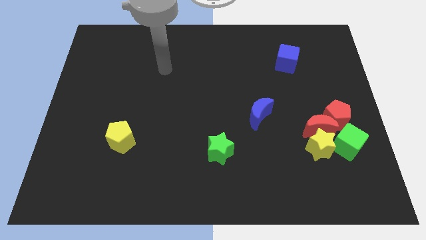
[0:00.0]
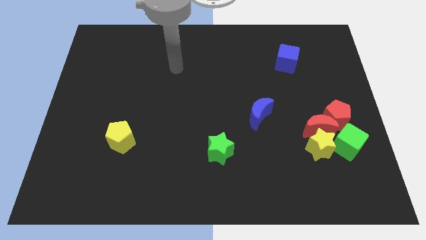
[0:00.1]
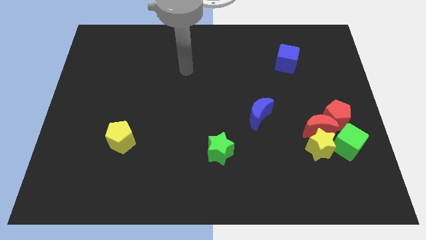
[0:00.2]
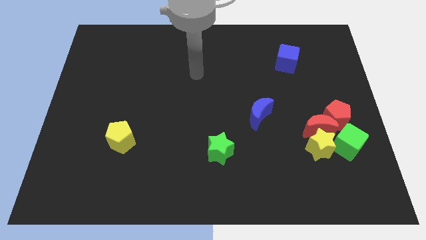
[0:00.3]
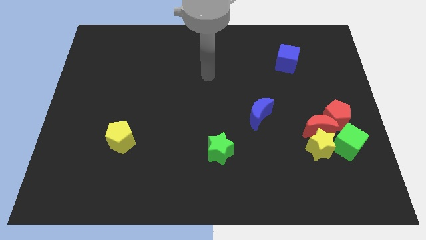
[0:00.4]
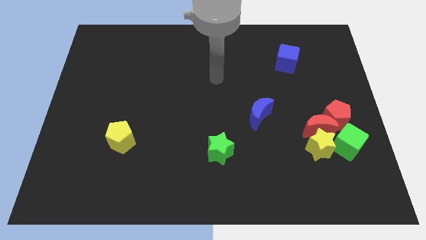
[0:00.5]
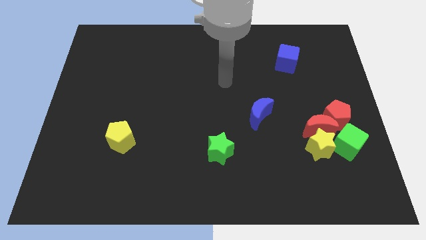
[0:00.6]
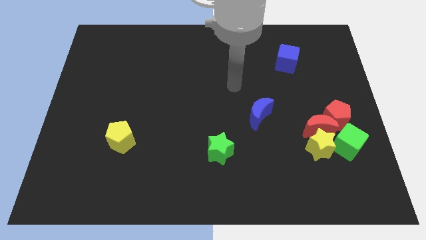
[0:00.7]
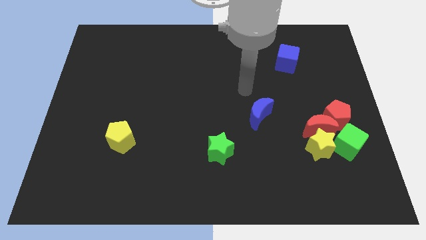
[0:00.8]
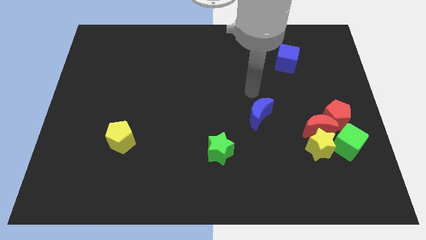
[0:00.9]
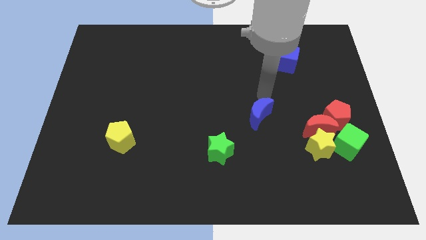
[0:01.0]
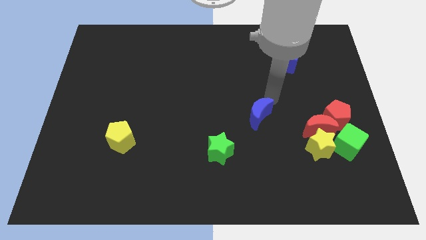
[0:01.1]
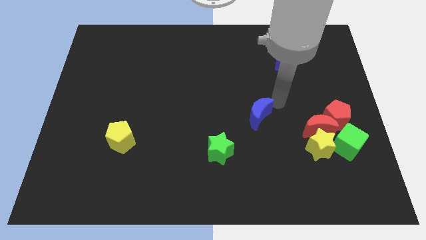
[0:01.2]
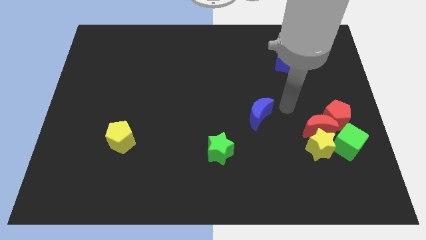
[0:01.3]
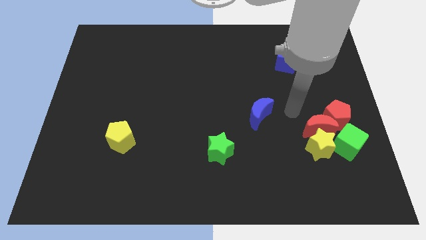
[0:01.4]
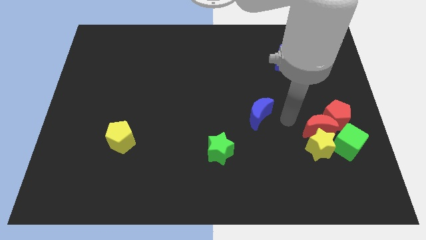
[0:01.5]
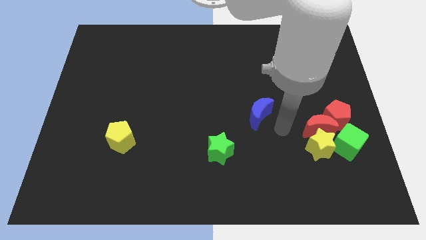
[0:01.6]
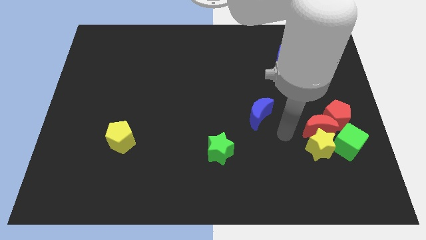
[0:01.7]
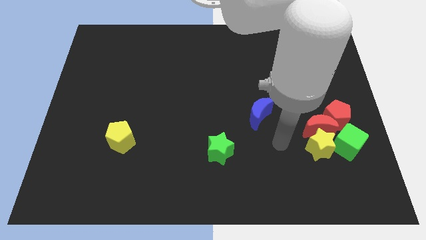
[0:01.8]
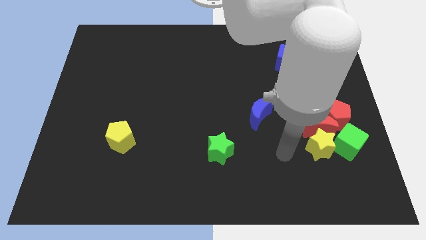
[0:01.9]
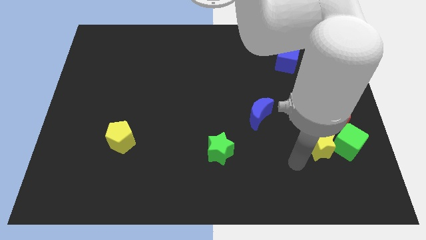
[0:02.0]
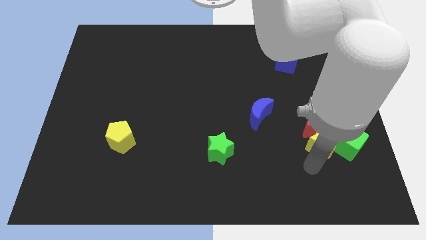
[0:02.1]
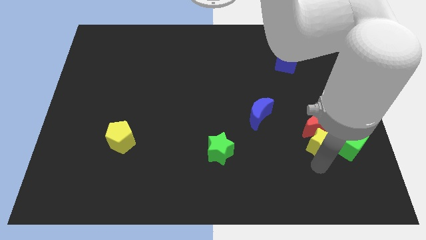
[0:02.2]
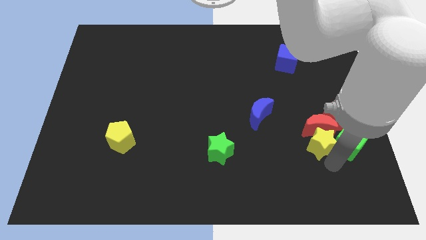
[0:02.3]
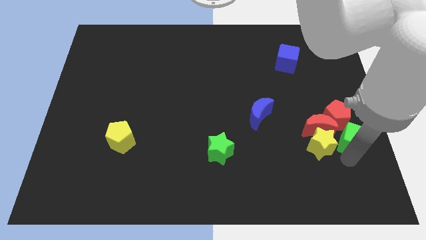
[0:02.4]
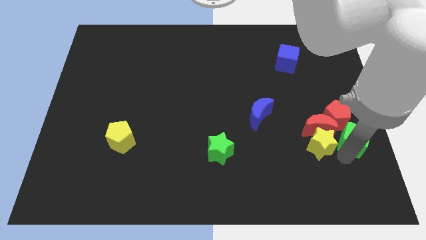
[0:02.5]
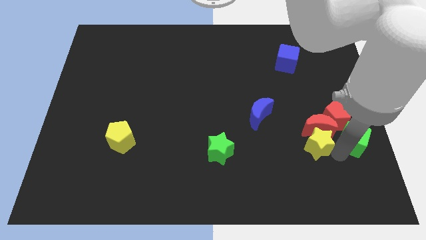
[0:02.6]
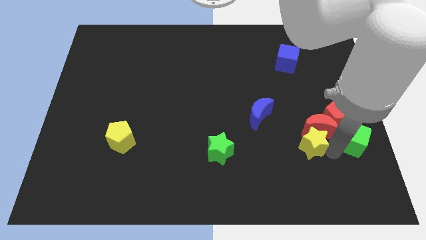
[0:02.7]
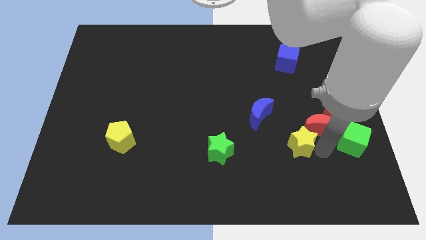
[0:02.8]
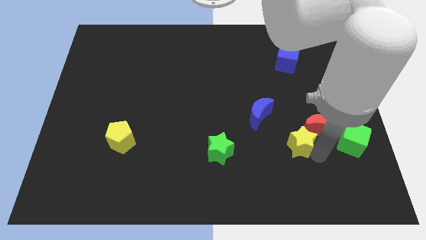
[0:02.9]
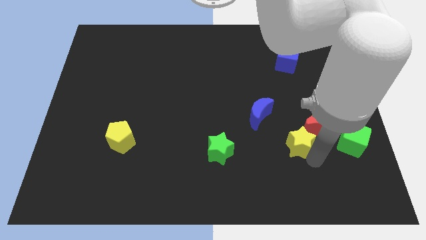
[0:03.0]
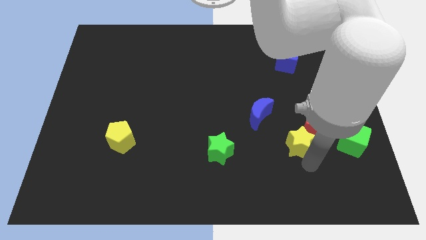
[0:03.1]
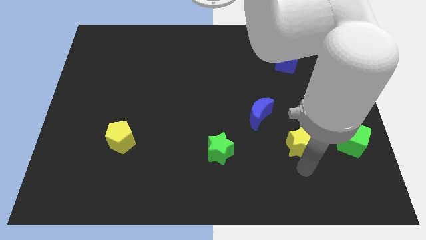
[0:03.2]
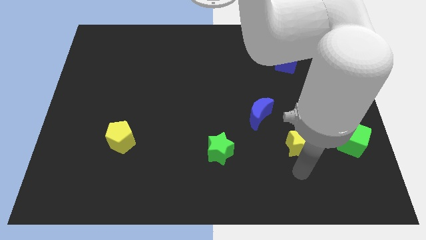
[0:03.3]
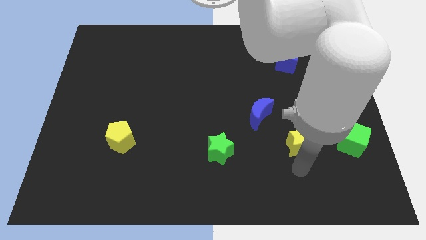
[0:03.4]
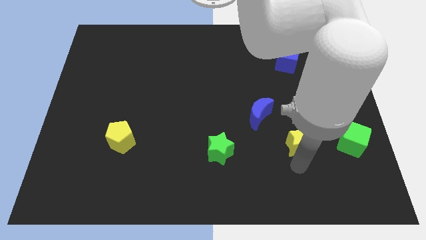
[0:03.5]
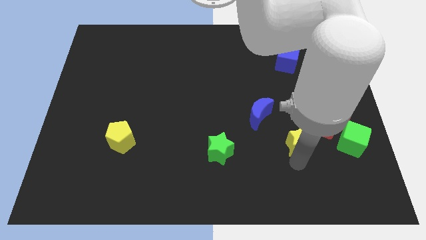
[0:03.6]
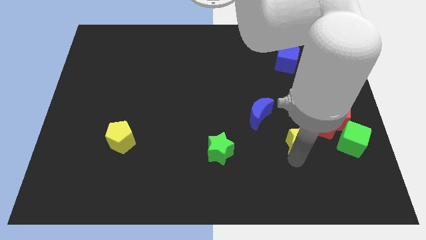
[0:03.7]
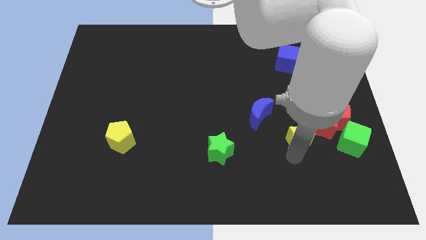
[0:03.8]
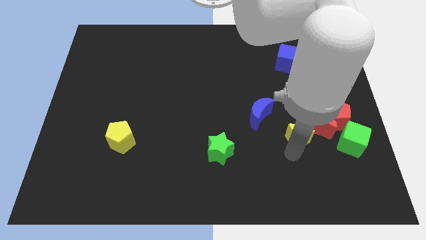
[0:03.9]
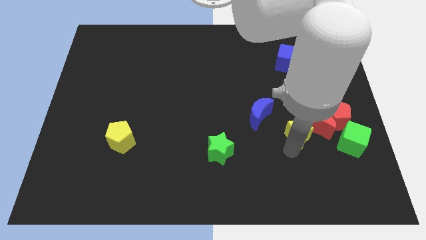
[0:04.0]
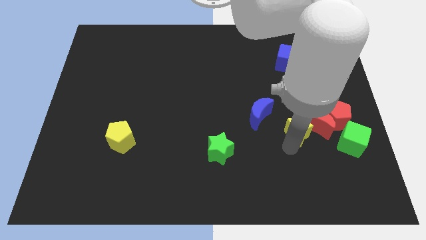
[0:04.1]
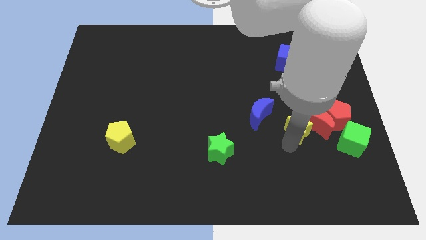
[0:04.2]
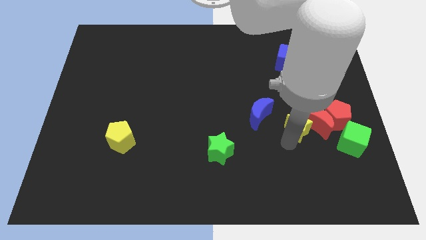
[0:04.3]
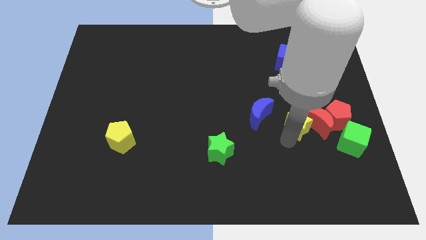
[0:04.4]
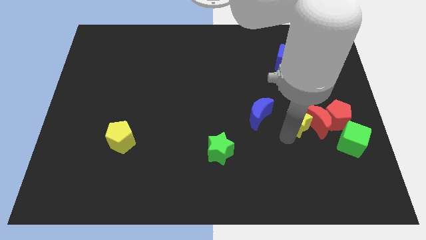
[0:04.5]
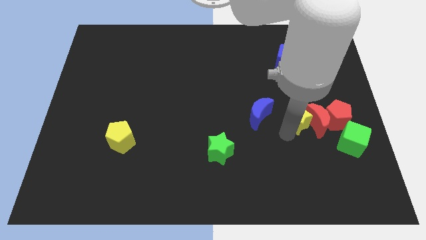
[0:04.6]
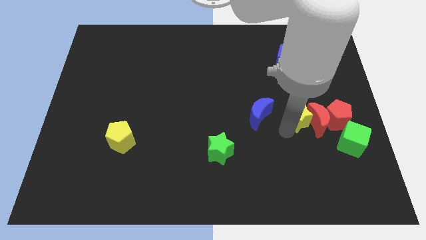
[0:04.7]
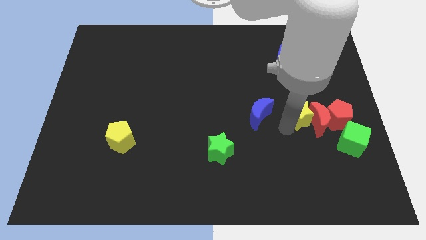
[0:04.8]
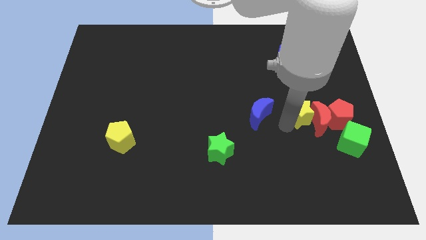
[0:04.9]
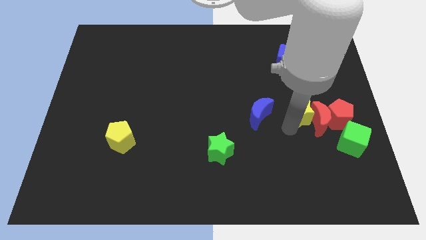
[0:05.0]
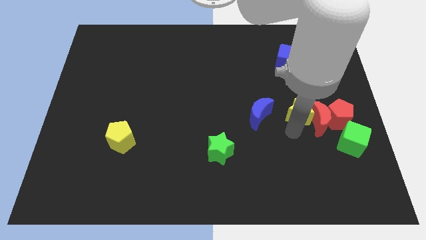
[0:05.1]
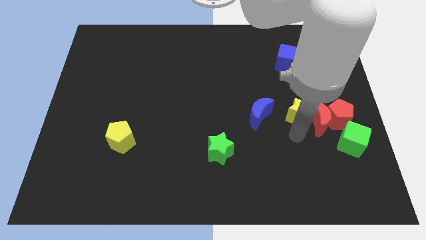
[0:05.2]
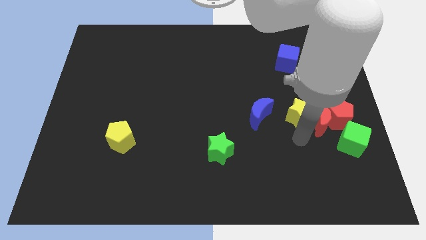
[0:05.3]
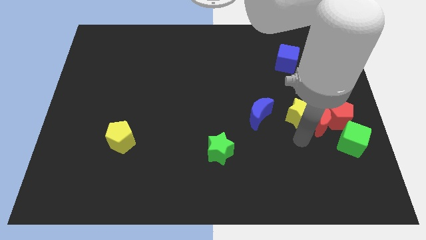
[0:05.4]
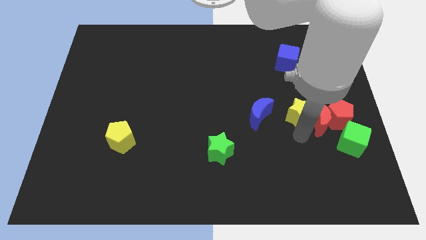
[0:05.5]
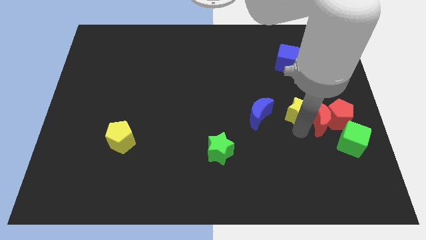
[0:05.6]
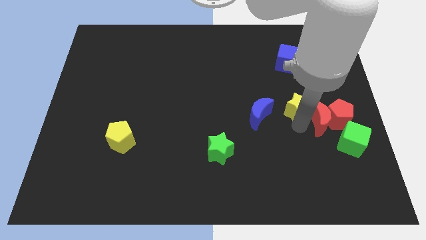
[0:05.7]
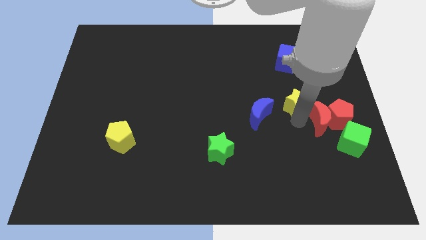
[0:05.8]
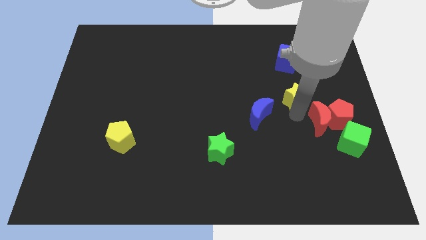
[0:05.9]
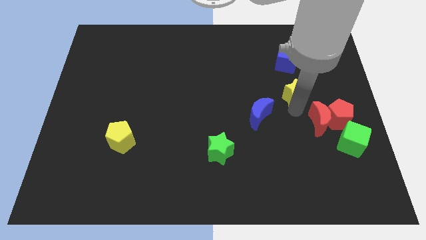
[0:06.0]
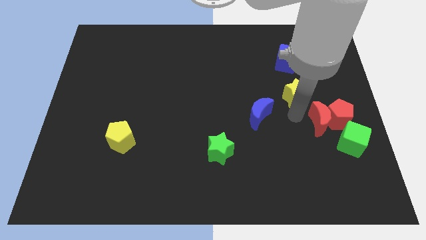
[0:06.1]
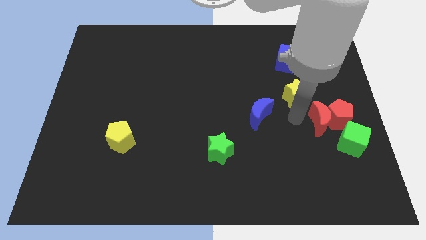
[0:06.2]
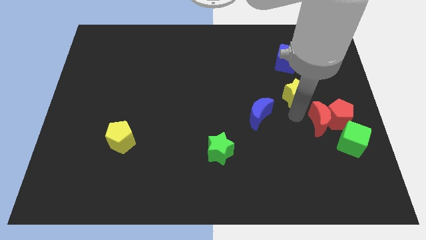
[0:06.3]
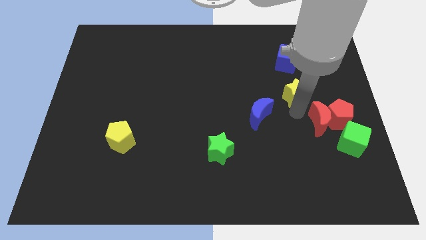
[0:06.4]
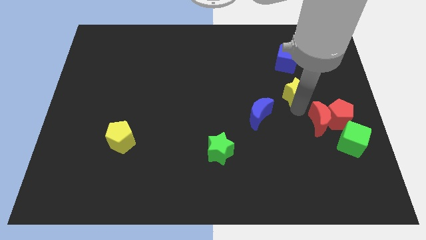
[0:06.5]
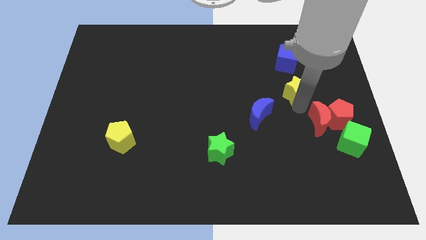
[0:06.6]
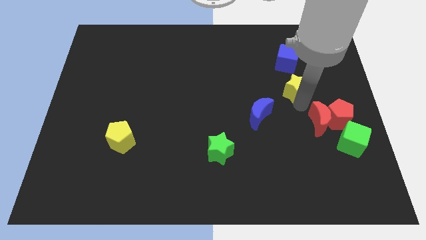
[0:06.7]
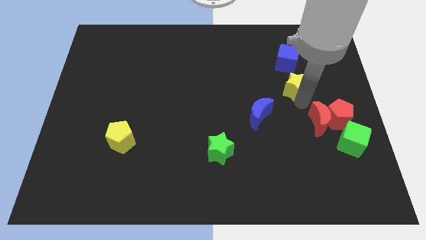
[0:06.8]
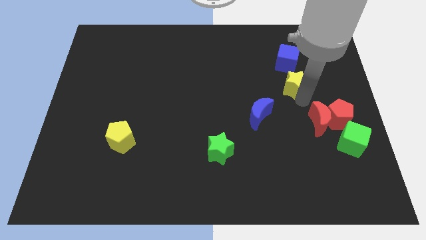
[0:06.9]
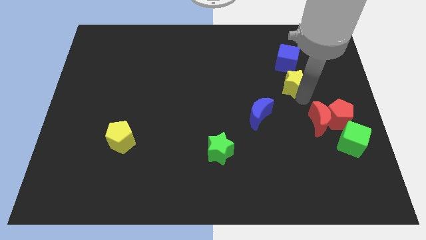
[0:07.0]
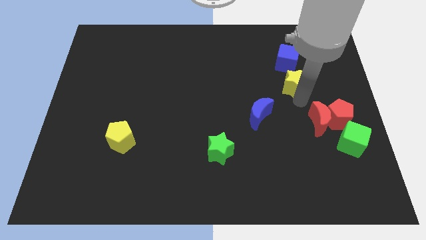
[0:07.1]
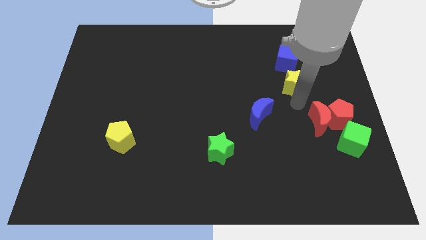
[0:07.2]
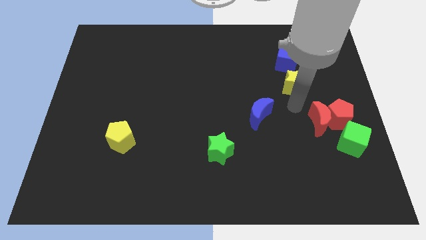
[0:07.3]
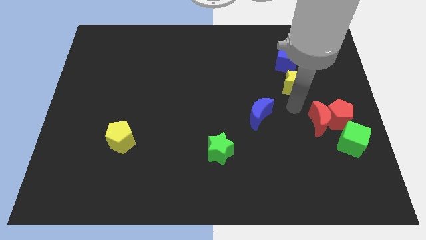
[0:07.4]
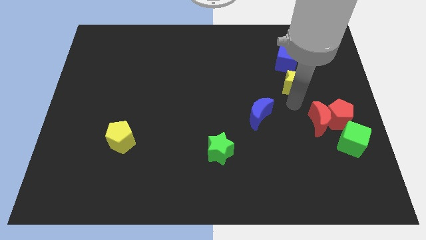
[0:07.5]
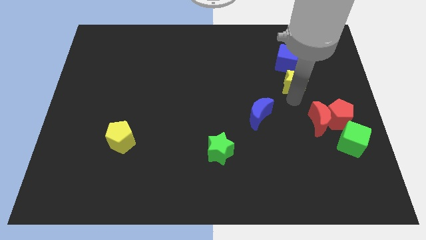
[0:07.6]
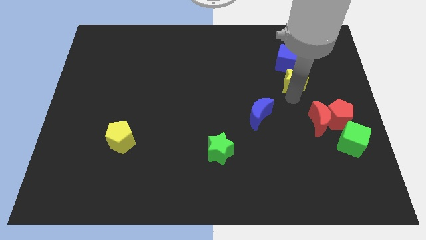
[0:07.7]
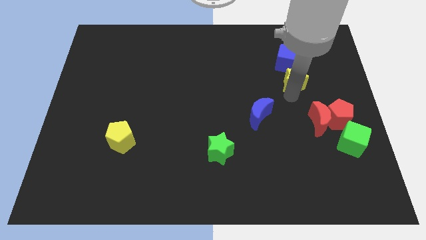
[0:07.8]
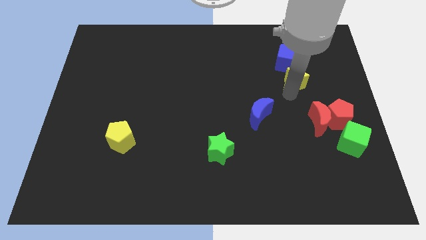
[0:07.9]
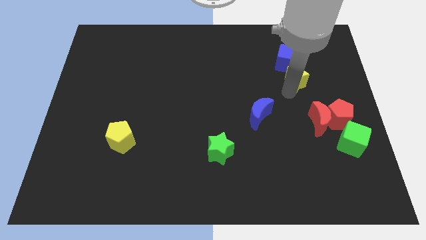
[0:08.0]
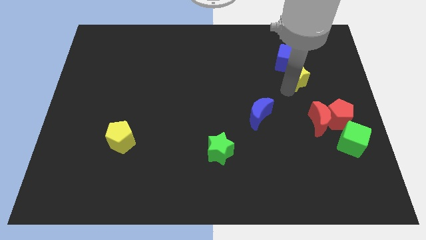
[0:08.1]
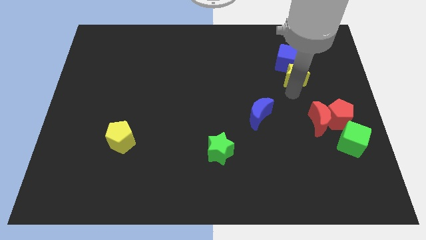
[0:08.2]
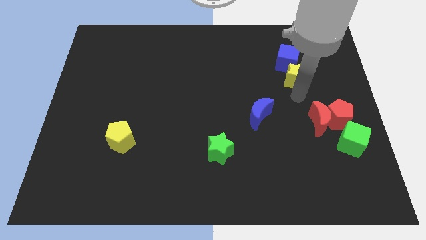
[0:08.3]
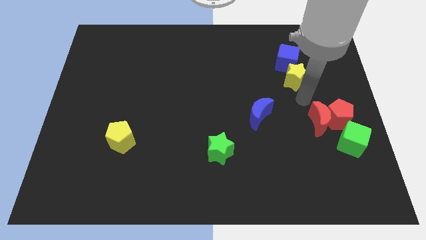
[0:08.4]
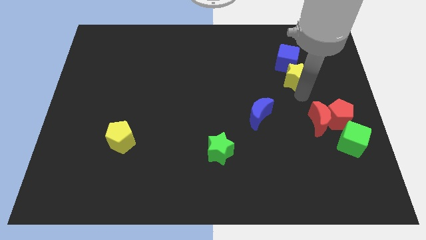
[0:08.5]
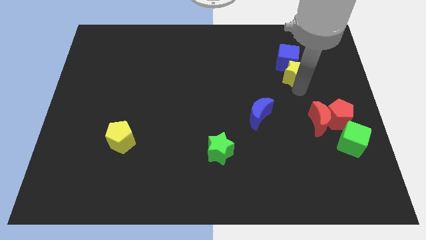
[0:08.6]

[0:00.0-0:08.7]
move the yellow star close to the blue cube
